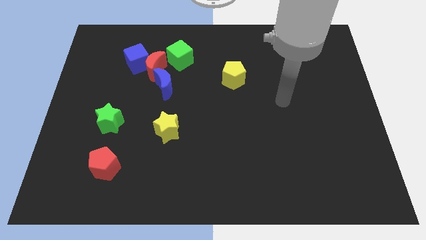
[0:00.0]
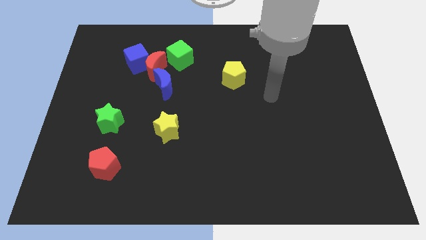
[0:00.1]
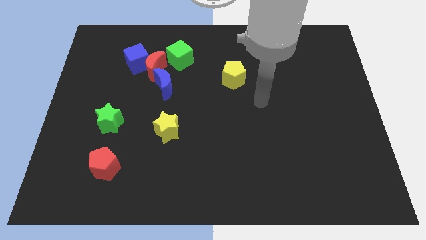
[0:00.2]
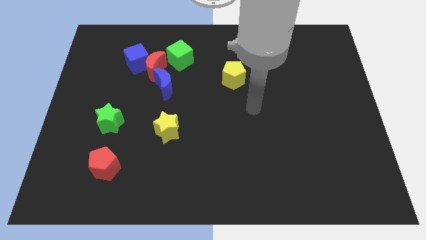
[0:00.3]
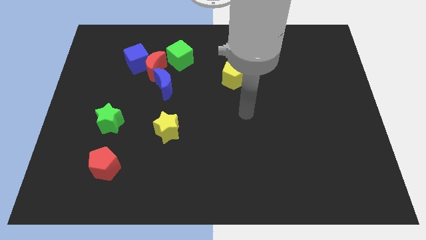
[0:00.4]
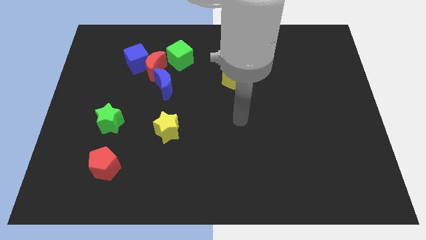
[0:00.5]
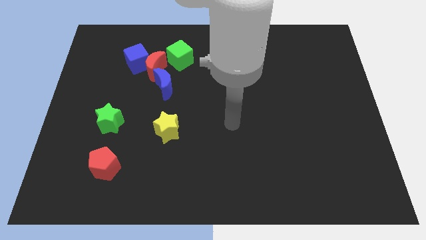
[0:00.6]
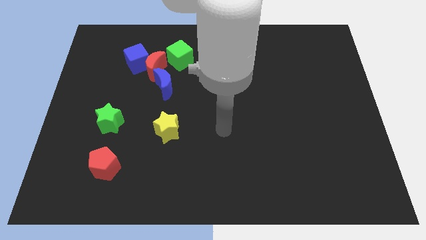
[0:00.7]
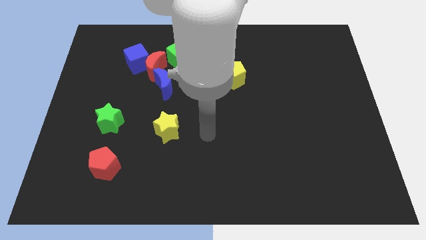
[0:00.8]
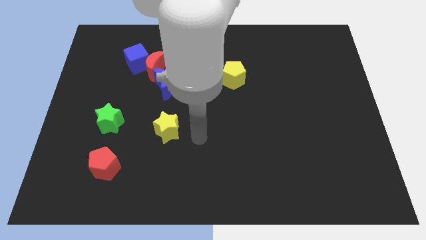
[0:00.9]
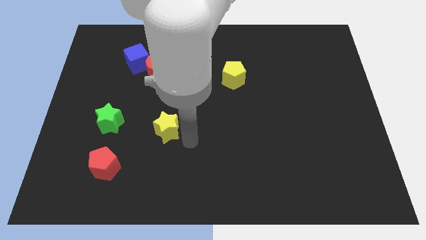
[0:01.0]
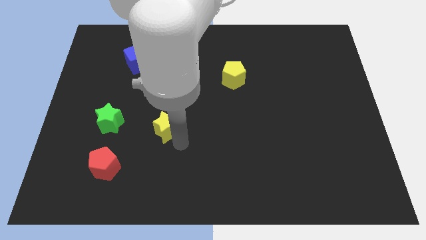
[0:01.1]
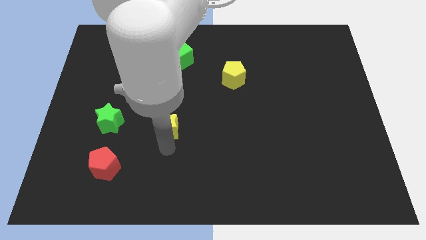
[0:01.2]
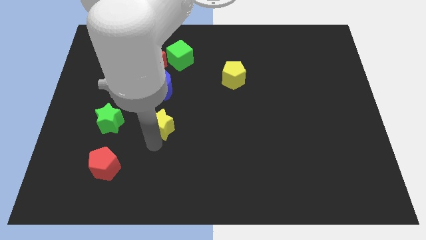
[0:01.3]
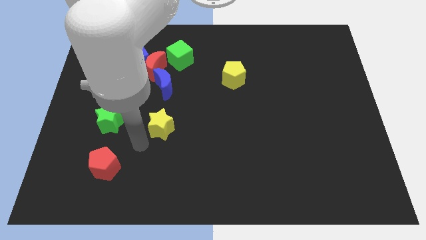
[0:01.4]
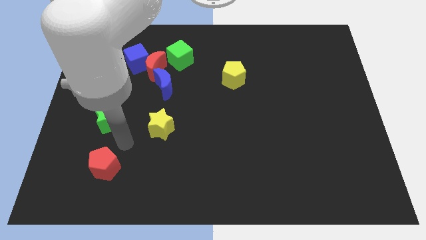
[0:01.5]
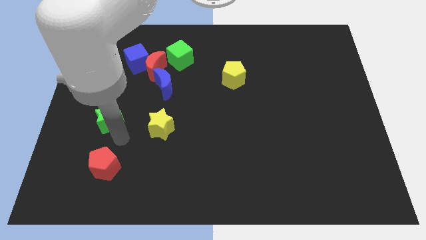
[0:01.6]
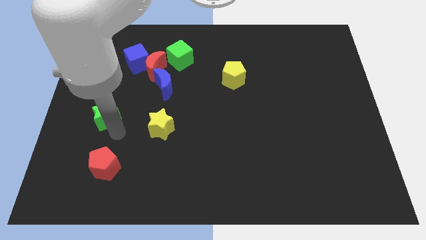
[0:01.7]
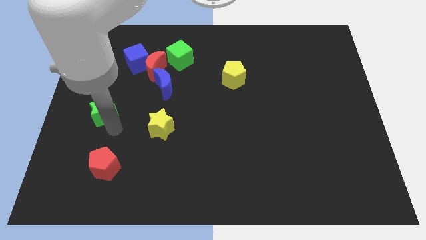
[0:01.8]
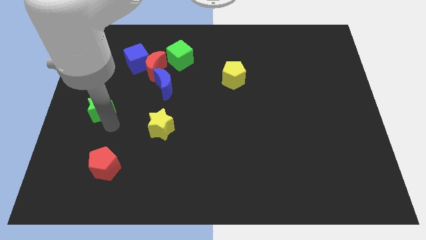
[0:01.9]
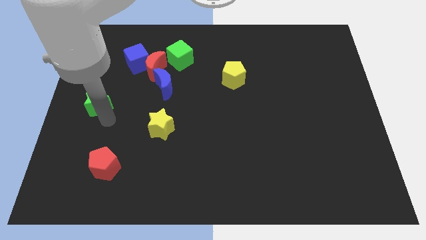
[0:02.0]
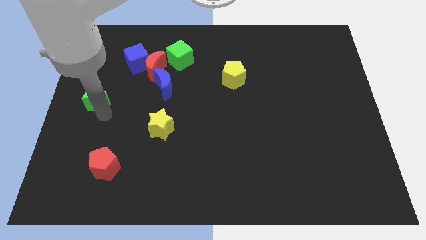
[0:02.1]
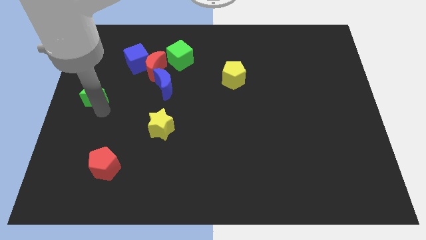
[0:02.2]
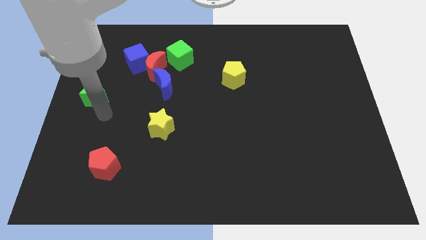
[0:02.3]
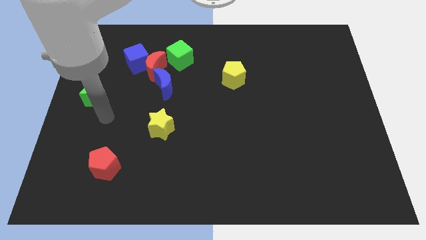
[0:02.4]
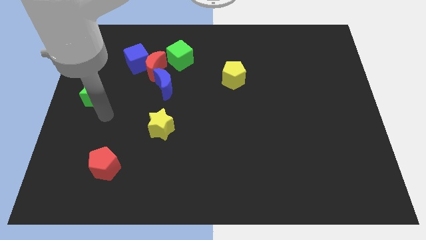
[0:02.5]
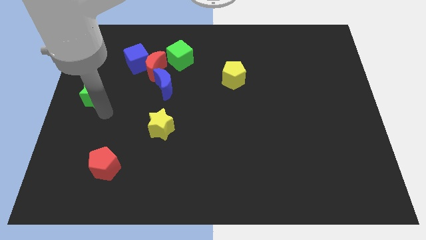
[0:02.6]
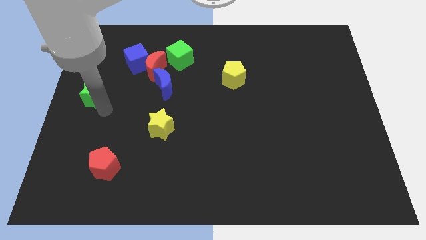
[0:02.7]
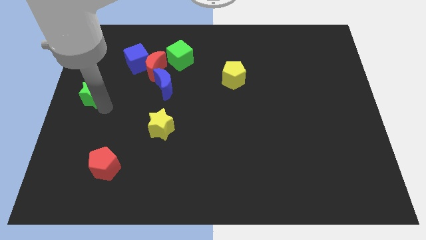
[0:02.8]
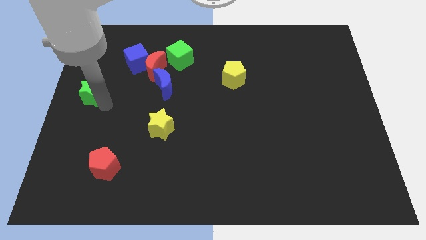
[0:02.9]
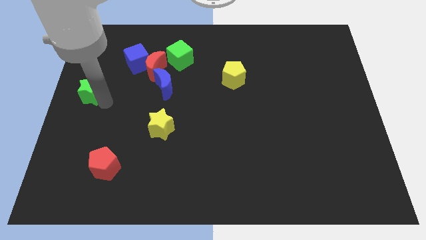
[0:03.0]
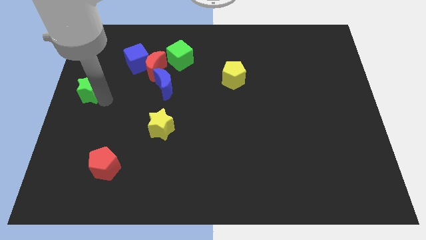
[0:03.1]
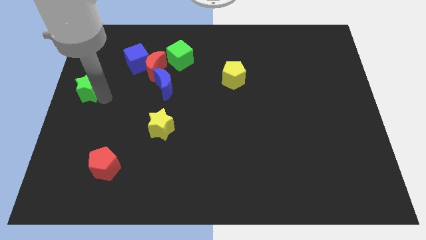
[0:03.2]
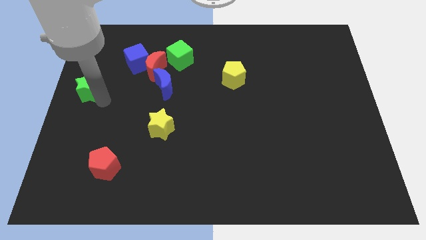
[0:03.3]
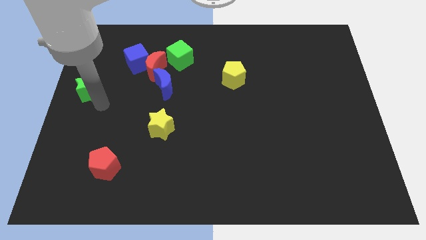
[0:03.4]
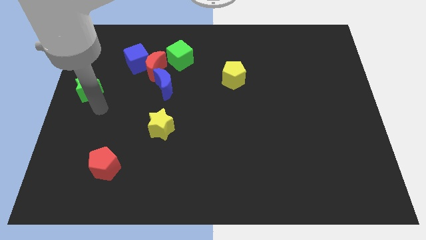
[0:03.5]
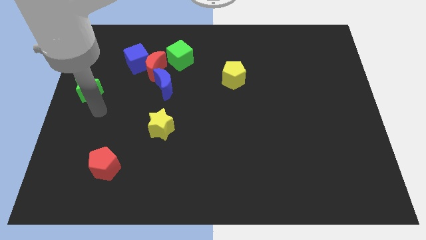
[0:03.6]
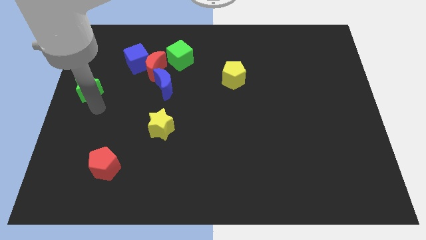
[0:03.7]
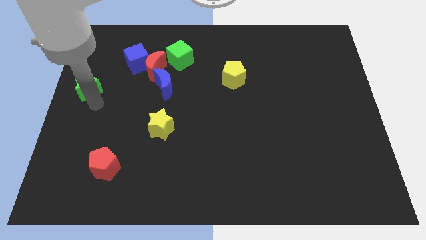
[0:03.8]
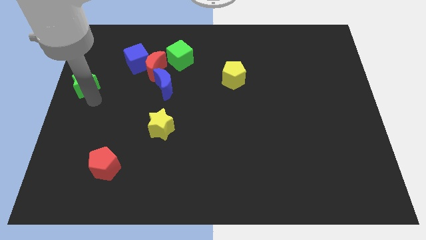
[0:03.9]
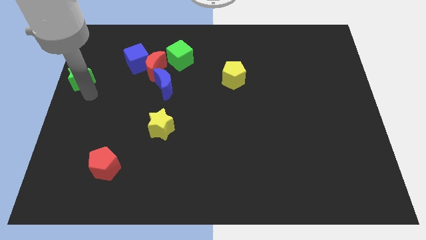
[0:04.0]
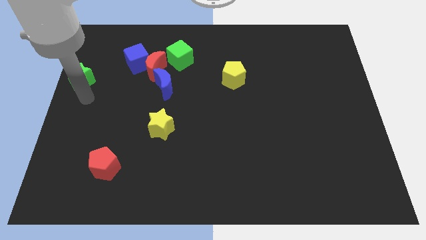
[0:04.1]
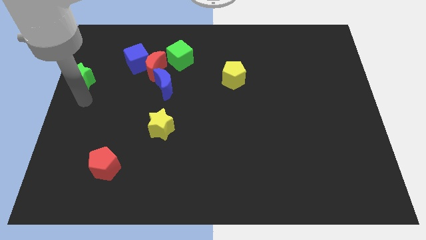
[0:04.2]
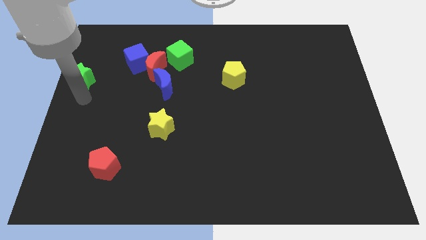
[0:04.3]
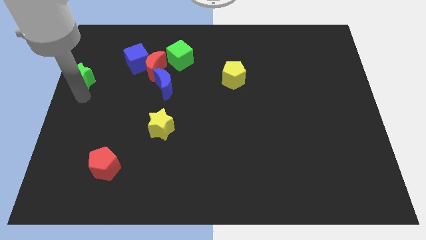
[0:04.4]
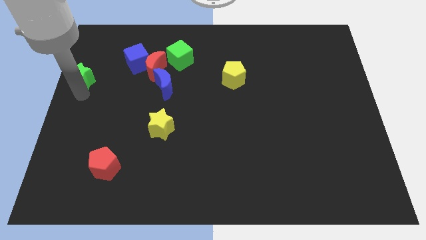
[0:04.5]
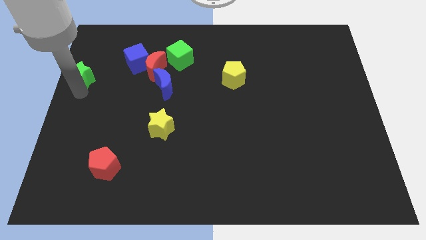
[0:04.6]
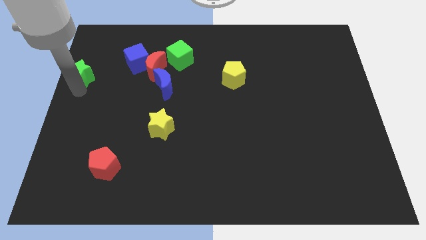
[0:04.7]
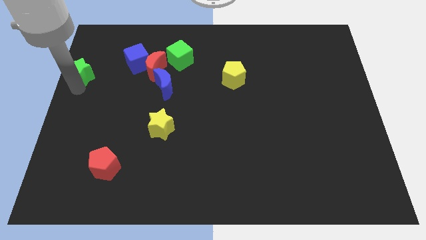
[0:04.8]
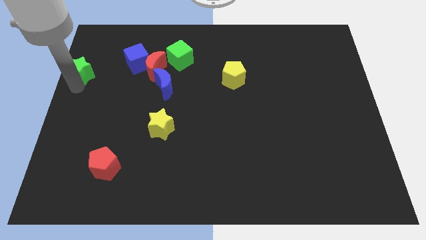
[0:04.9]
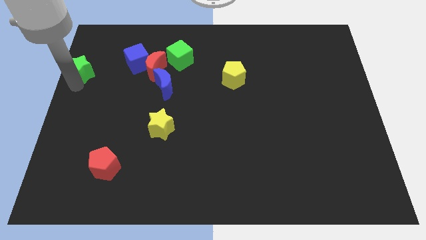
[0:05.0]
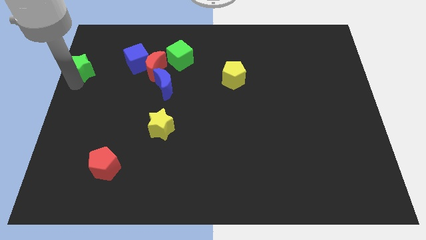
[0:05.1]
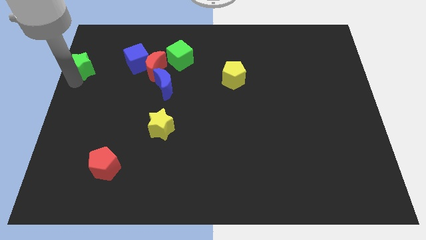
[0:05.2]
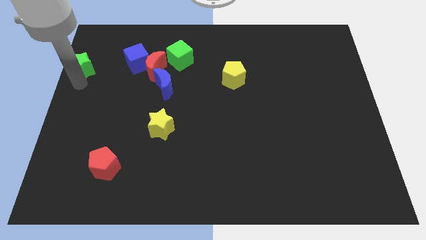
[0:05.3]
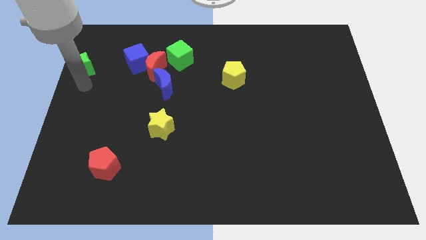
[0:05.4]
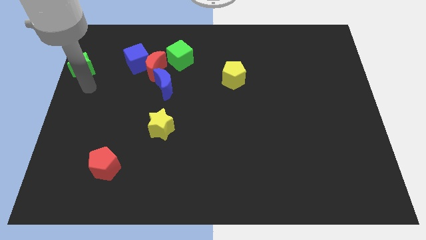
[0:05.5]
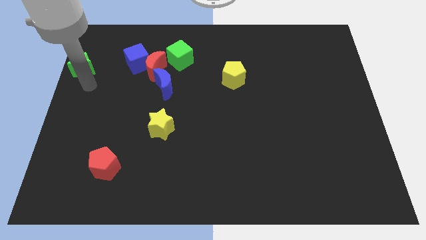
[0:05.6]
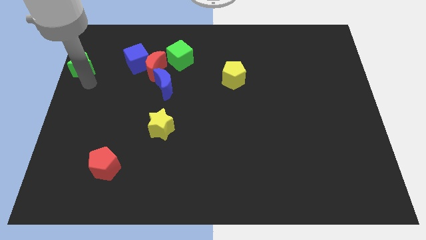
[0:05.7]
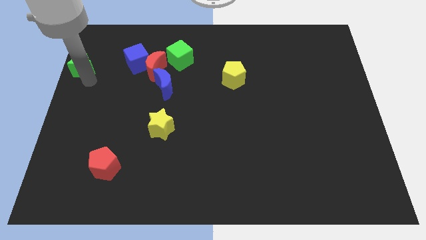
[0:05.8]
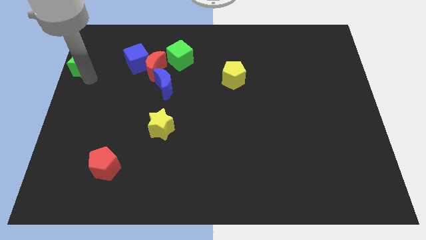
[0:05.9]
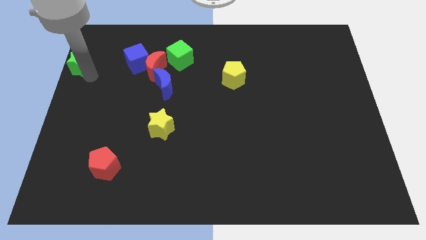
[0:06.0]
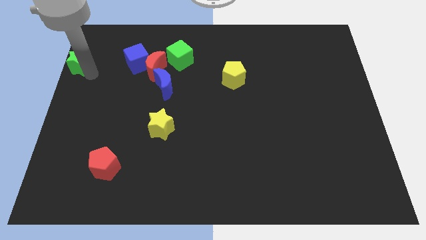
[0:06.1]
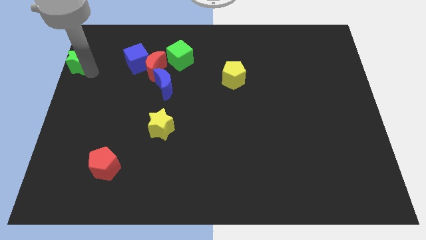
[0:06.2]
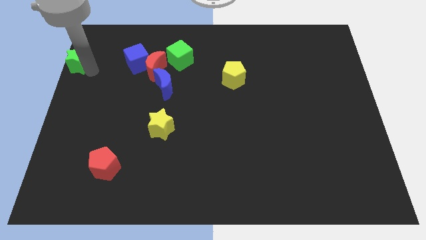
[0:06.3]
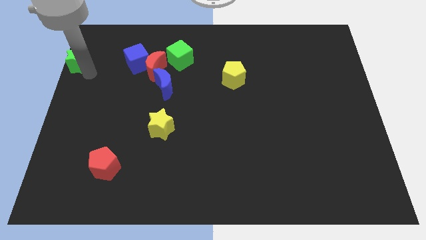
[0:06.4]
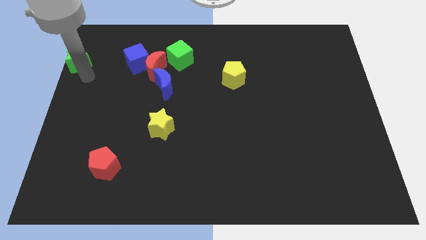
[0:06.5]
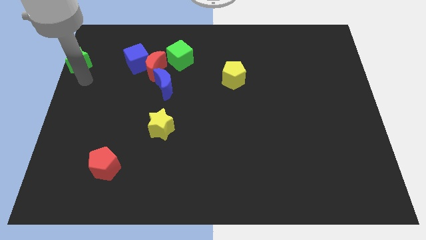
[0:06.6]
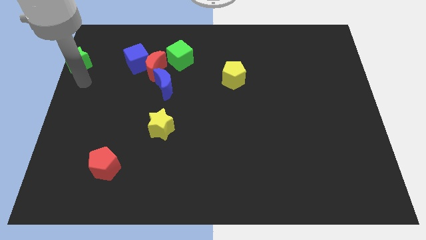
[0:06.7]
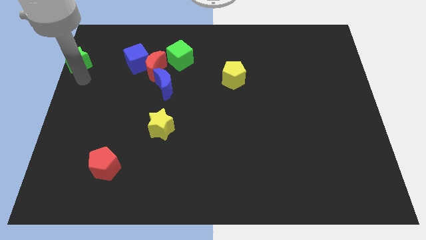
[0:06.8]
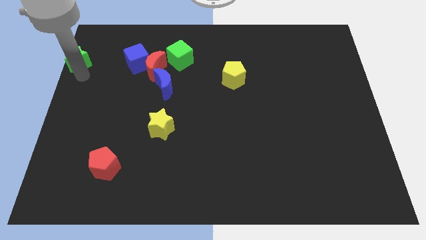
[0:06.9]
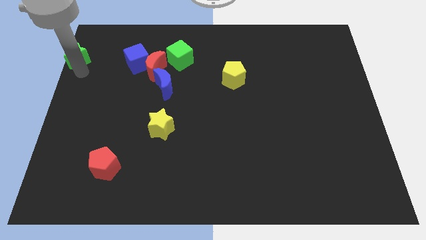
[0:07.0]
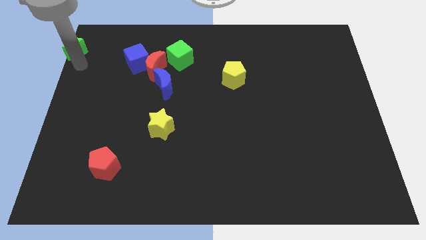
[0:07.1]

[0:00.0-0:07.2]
push the green star to the top left
